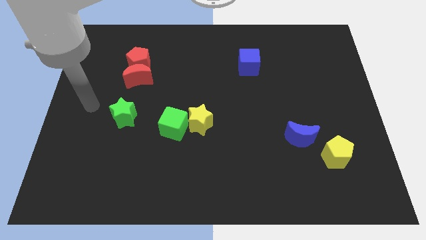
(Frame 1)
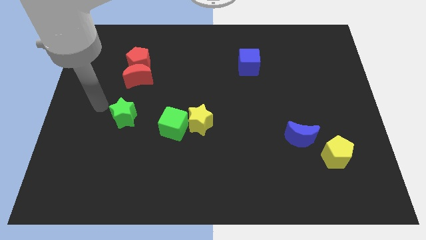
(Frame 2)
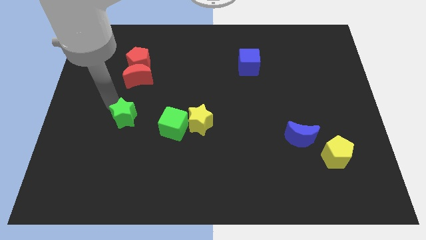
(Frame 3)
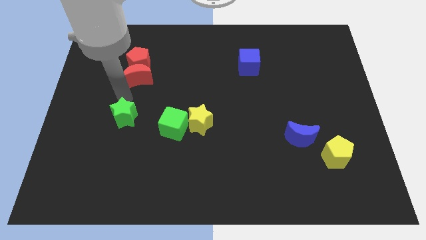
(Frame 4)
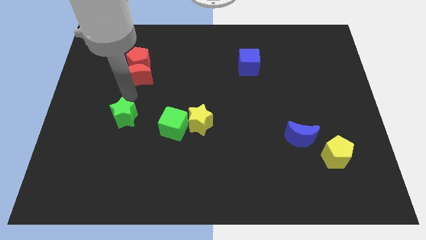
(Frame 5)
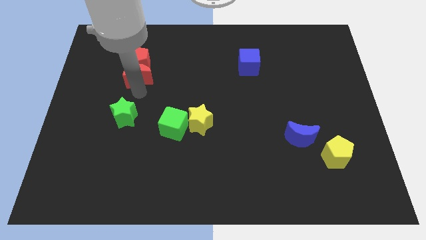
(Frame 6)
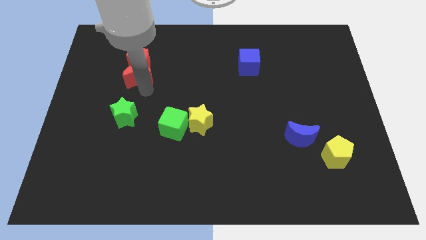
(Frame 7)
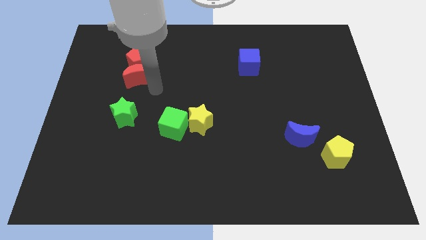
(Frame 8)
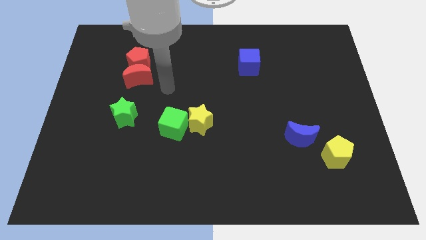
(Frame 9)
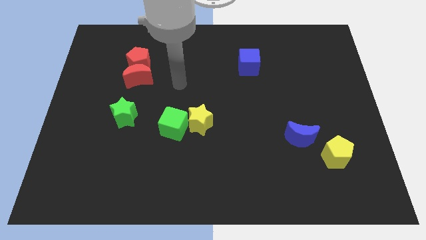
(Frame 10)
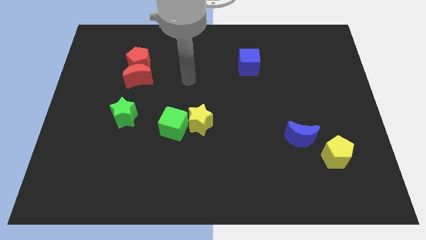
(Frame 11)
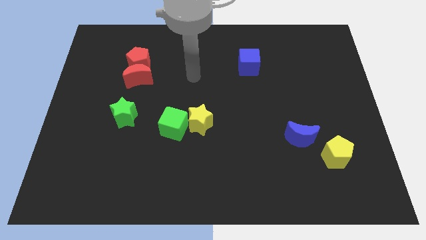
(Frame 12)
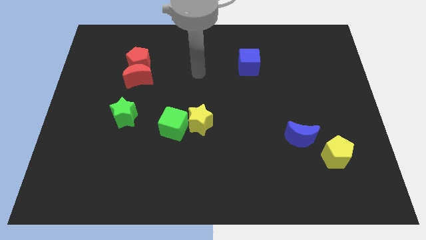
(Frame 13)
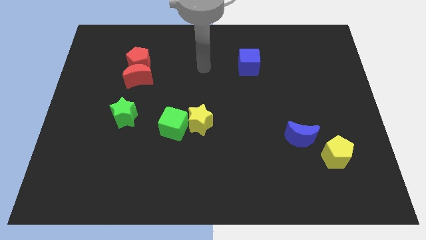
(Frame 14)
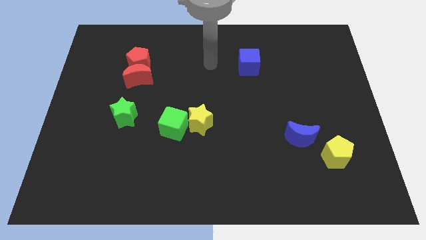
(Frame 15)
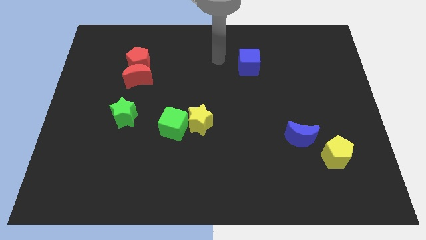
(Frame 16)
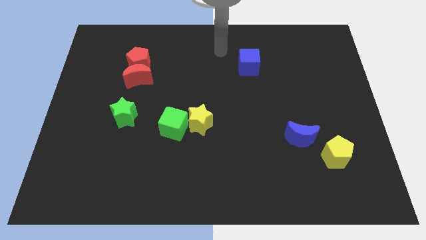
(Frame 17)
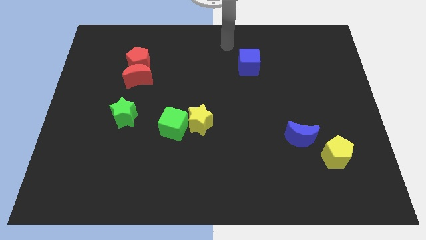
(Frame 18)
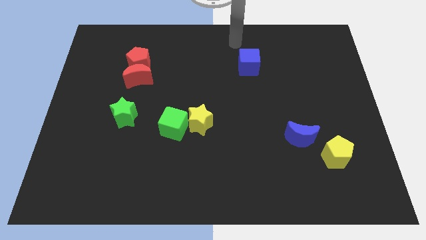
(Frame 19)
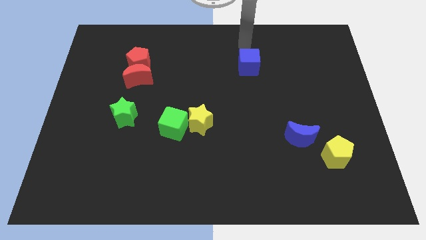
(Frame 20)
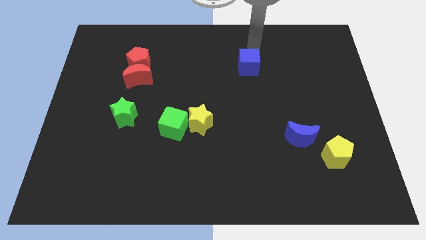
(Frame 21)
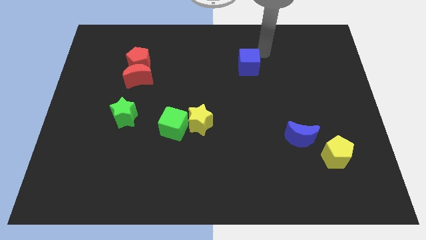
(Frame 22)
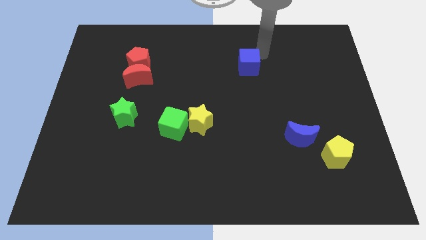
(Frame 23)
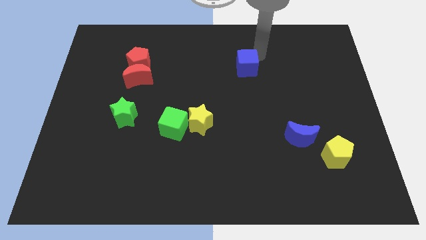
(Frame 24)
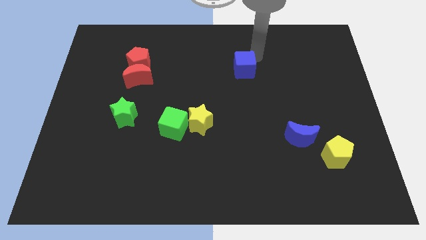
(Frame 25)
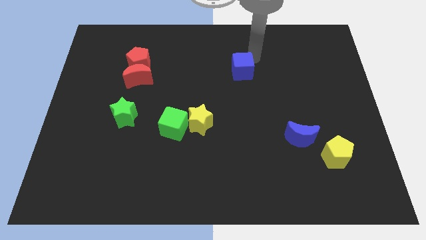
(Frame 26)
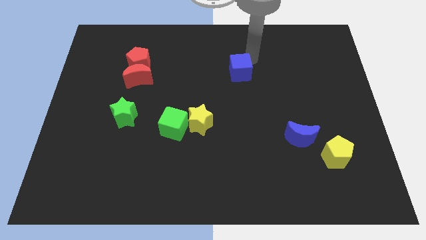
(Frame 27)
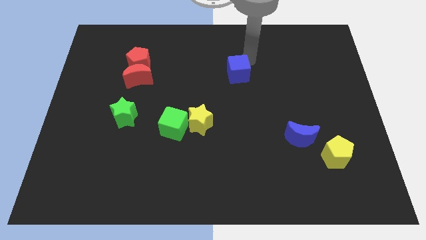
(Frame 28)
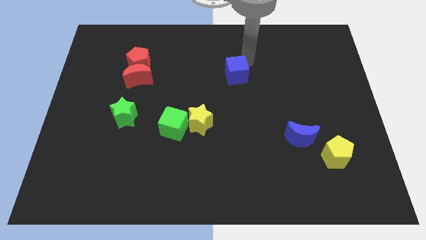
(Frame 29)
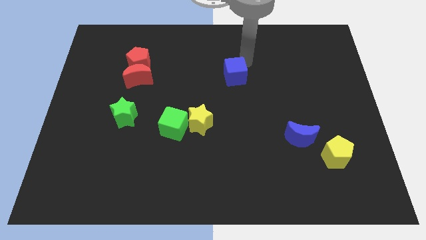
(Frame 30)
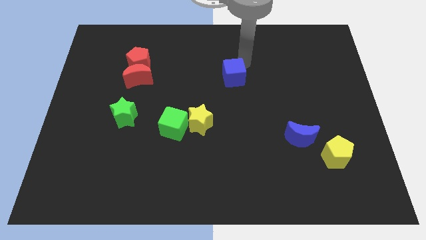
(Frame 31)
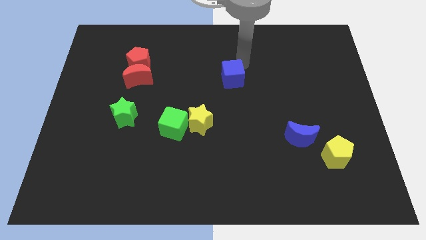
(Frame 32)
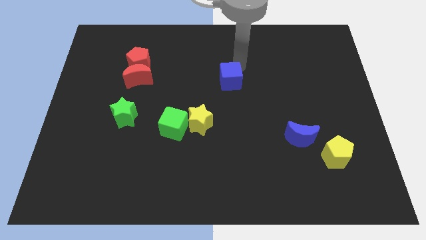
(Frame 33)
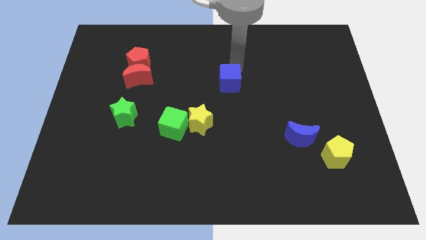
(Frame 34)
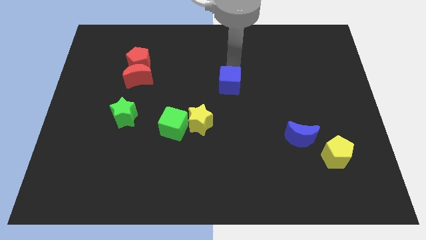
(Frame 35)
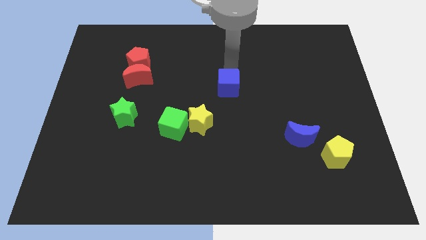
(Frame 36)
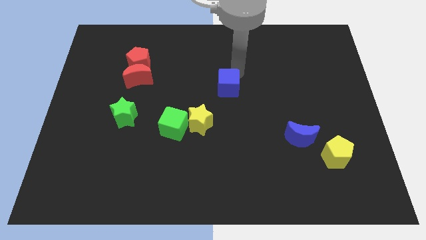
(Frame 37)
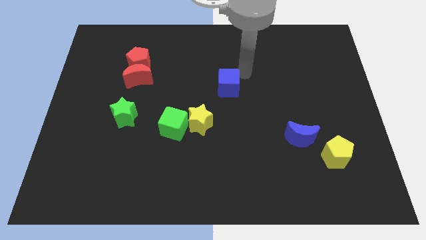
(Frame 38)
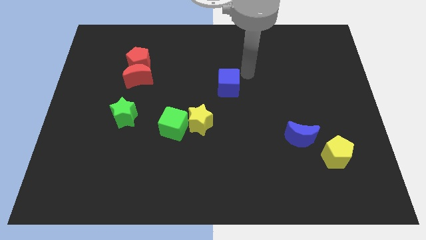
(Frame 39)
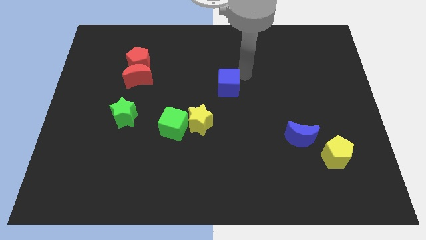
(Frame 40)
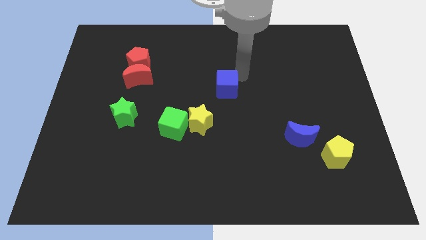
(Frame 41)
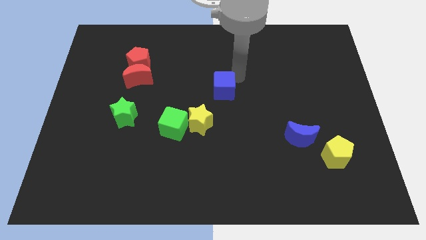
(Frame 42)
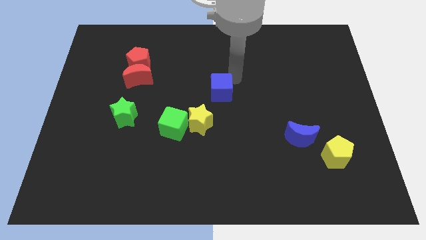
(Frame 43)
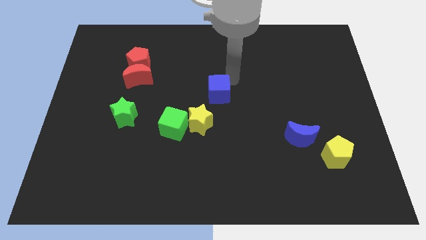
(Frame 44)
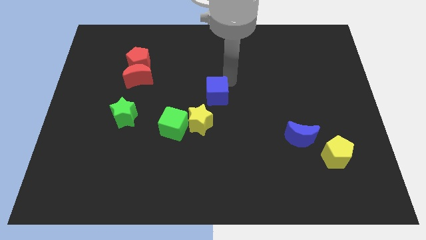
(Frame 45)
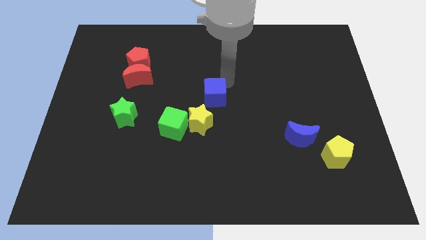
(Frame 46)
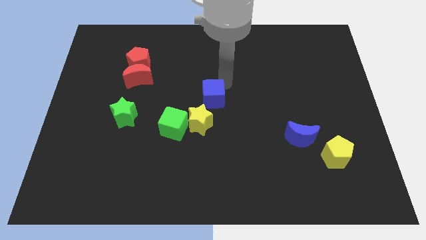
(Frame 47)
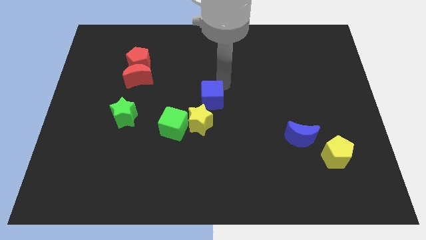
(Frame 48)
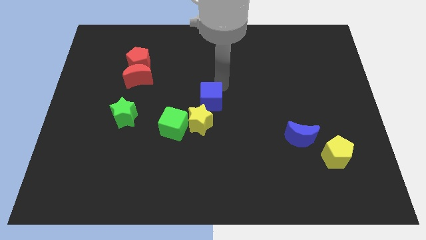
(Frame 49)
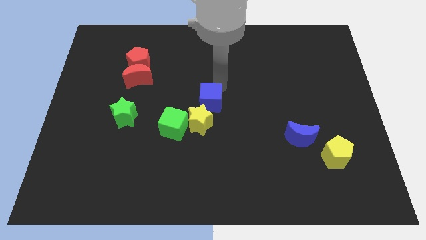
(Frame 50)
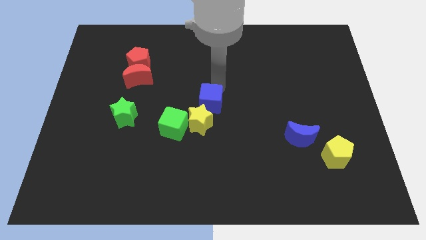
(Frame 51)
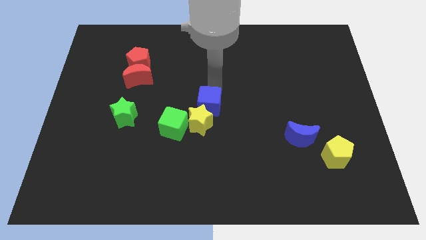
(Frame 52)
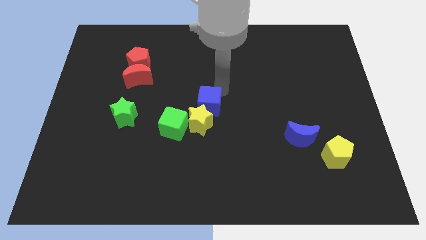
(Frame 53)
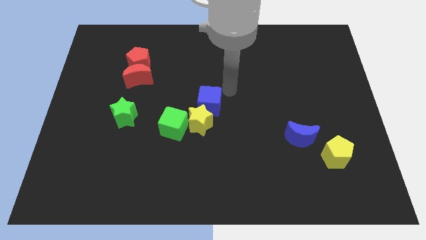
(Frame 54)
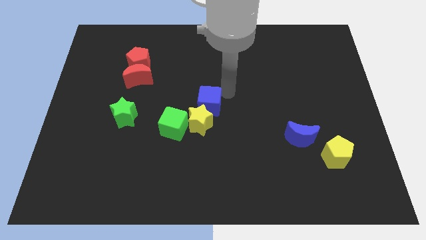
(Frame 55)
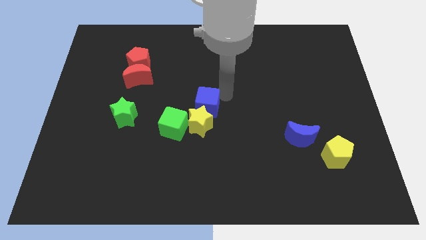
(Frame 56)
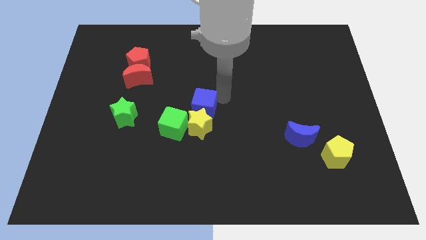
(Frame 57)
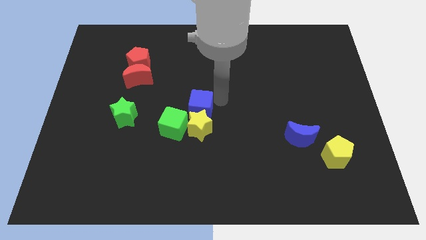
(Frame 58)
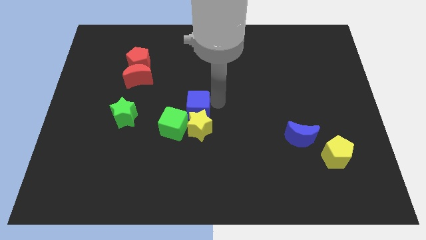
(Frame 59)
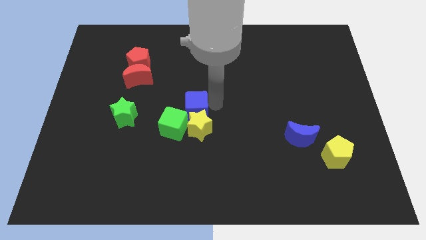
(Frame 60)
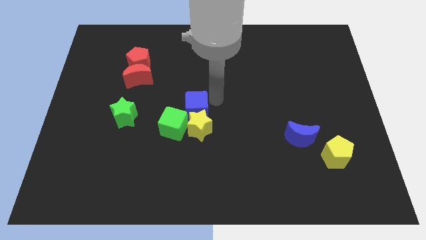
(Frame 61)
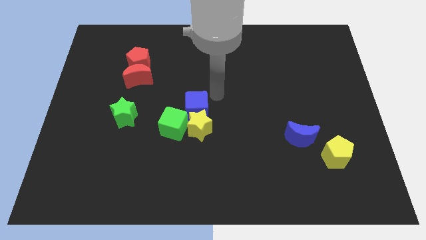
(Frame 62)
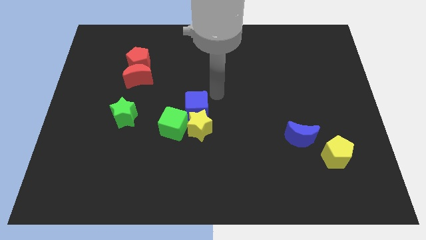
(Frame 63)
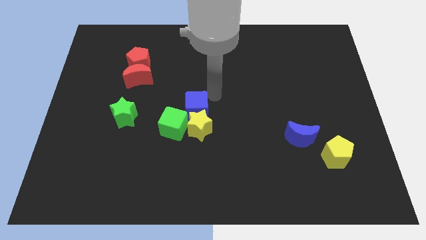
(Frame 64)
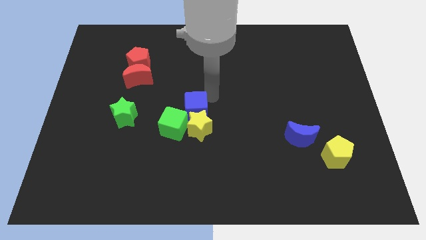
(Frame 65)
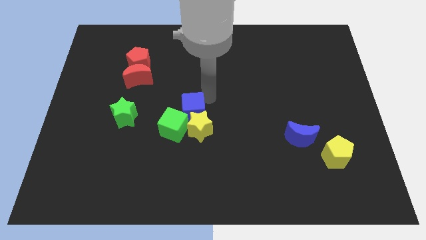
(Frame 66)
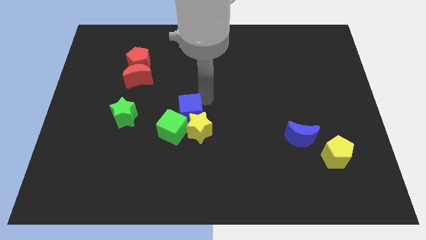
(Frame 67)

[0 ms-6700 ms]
push the blue cube to the green cube
